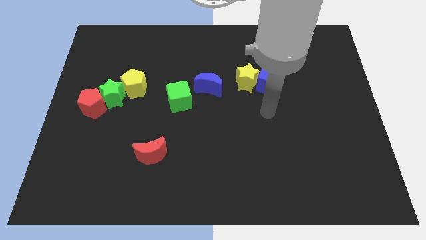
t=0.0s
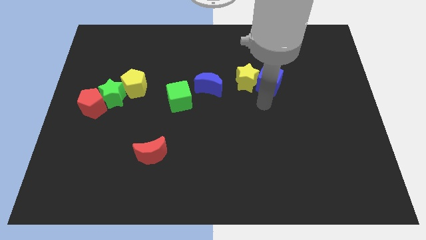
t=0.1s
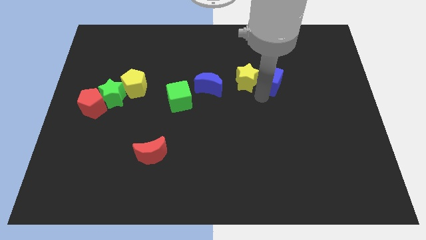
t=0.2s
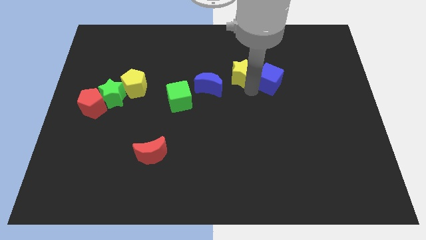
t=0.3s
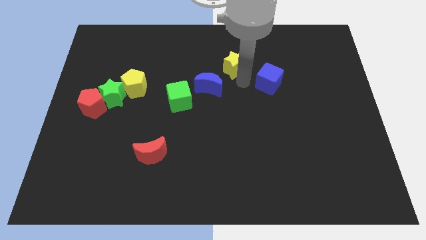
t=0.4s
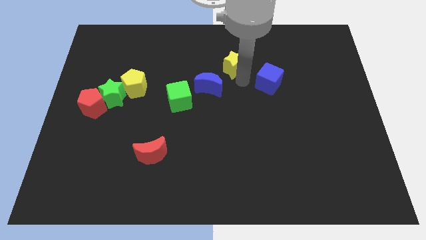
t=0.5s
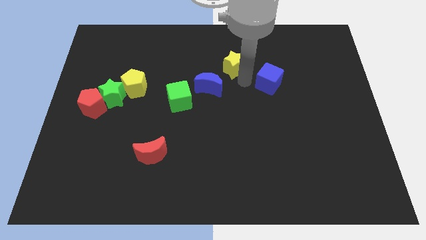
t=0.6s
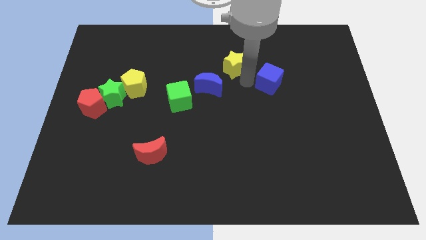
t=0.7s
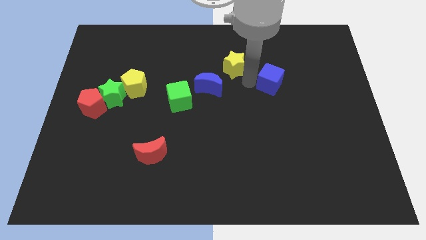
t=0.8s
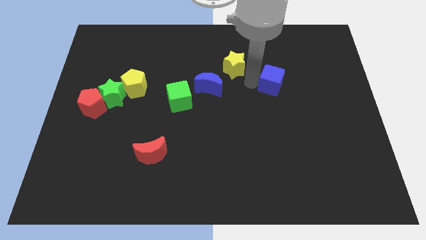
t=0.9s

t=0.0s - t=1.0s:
move the blue cube away from the yellow star

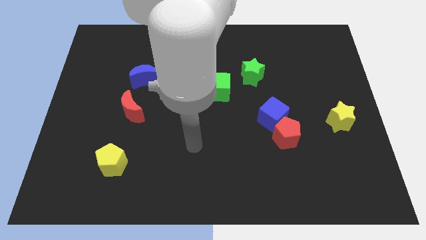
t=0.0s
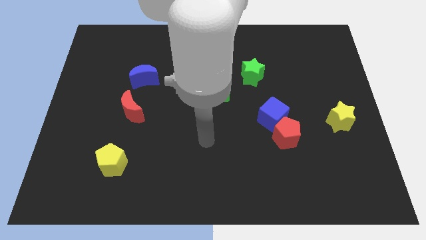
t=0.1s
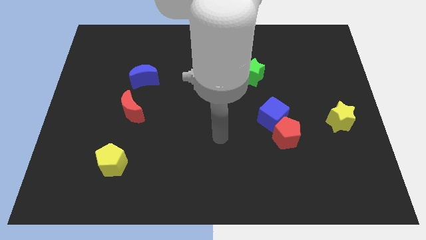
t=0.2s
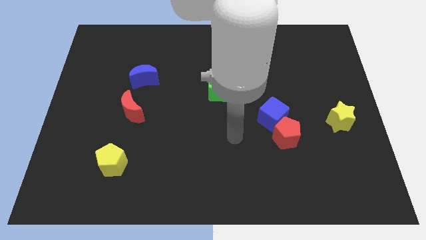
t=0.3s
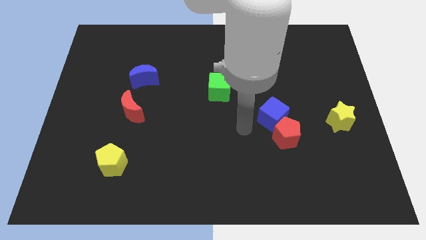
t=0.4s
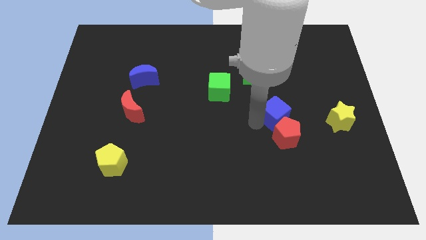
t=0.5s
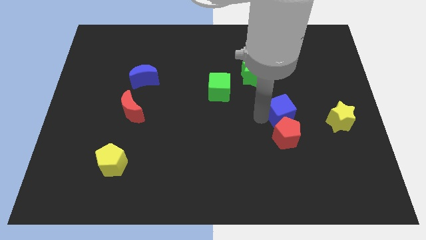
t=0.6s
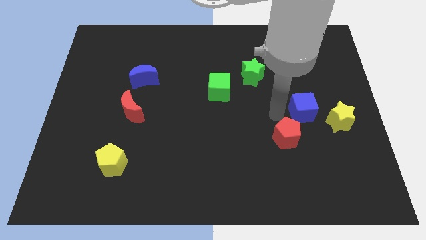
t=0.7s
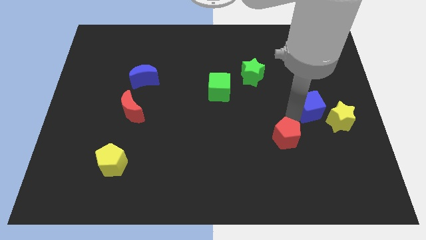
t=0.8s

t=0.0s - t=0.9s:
separate the red pentagon from the blue cube

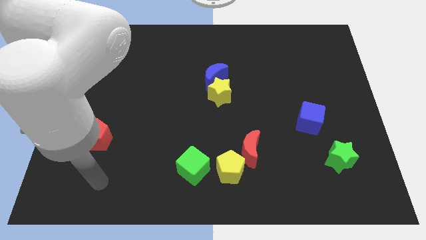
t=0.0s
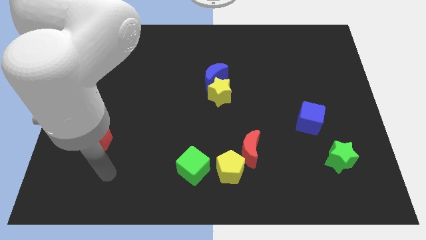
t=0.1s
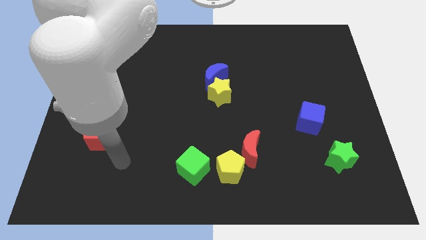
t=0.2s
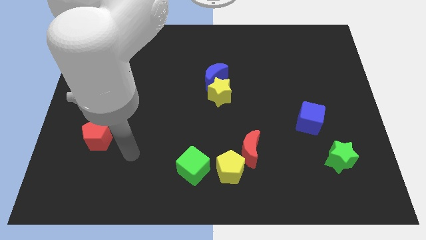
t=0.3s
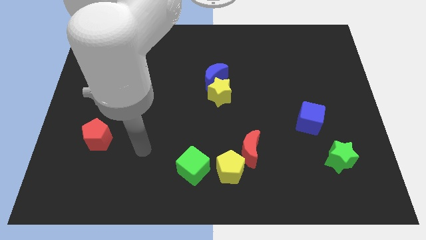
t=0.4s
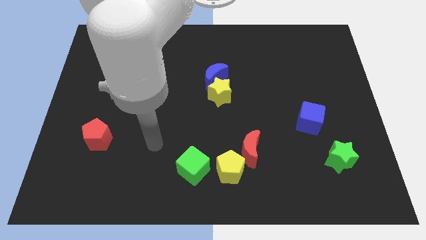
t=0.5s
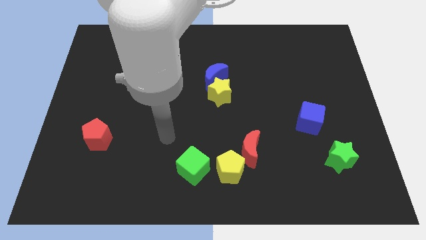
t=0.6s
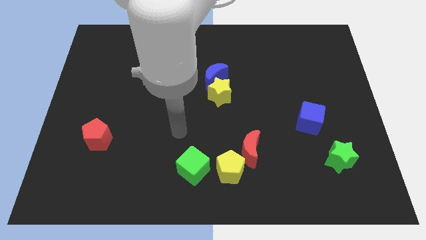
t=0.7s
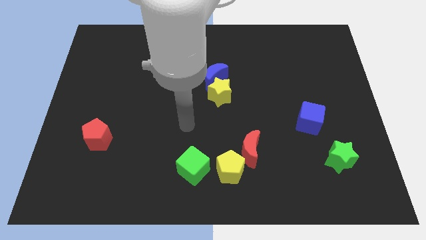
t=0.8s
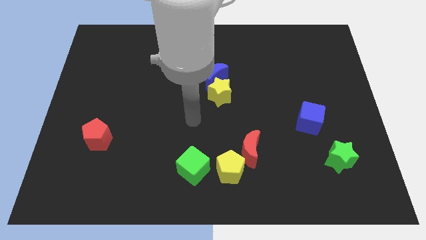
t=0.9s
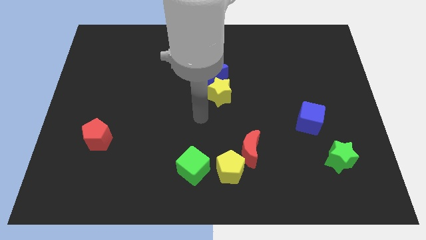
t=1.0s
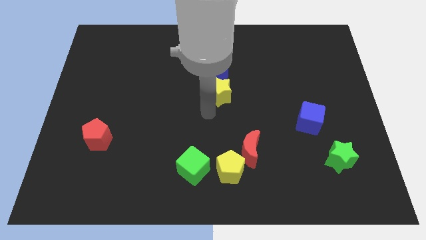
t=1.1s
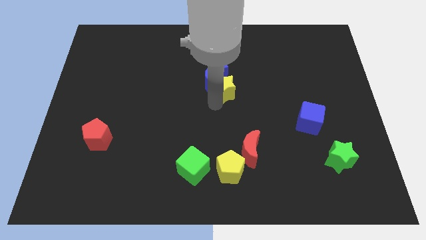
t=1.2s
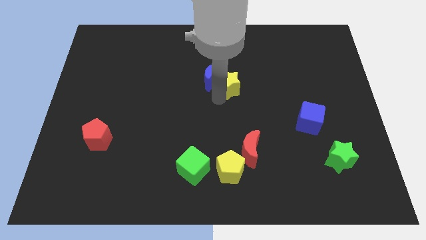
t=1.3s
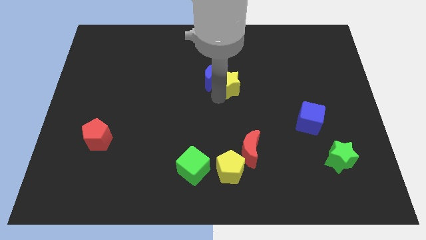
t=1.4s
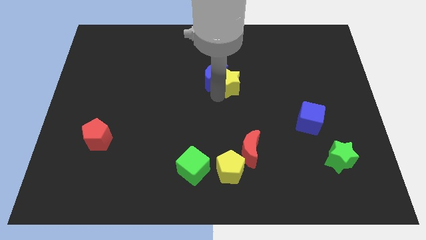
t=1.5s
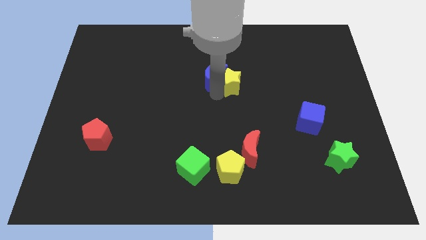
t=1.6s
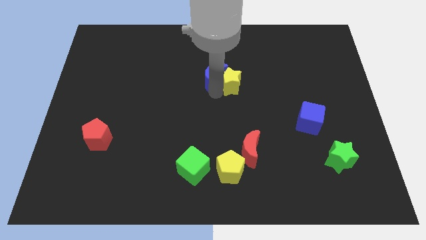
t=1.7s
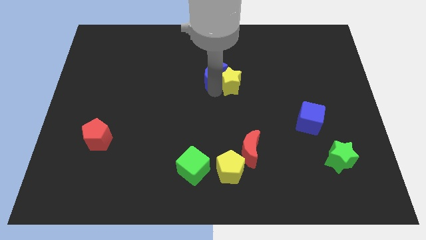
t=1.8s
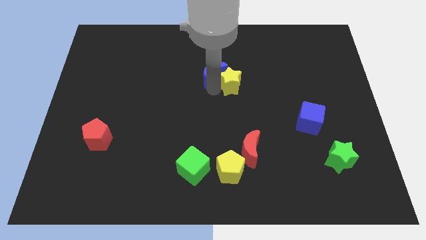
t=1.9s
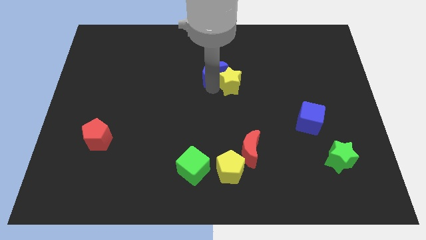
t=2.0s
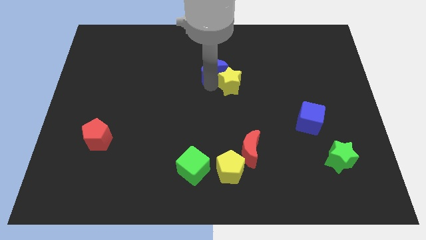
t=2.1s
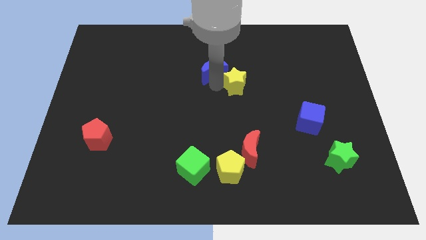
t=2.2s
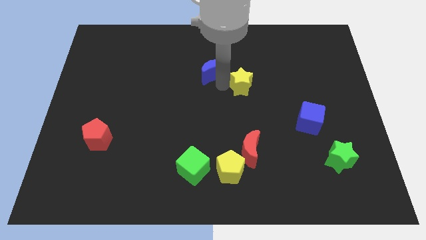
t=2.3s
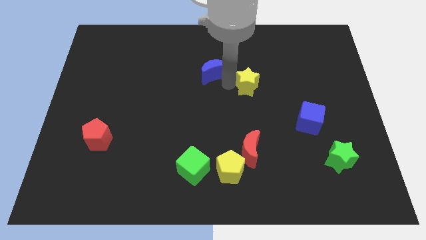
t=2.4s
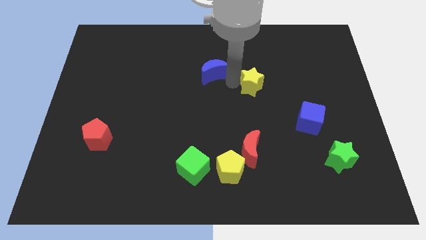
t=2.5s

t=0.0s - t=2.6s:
pull the blue moon apart from the yellow star

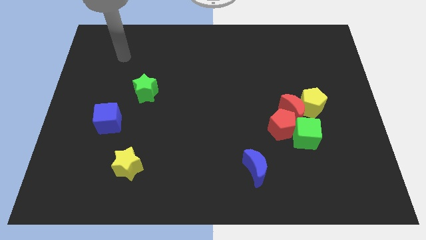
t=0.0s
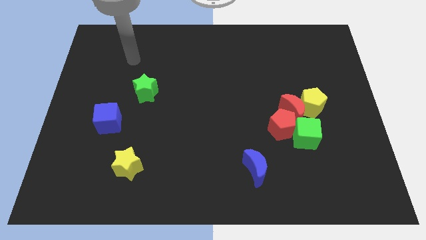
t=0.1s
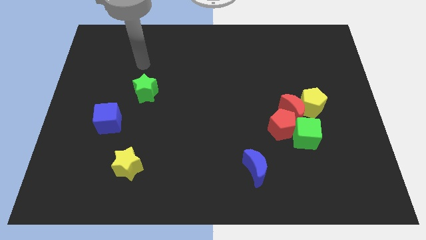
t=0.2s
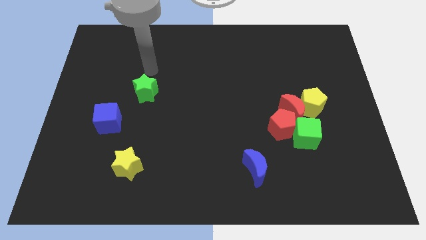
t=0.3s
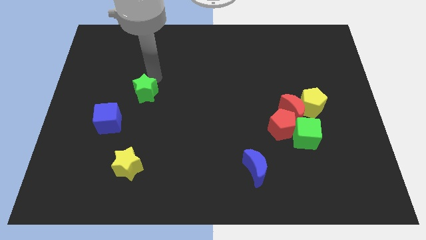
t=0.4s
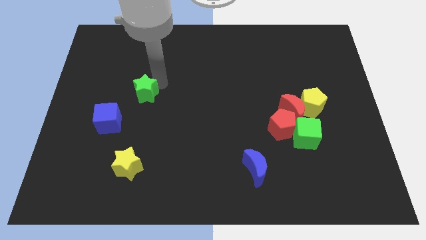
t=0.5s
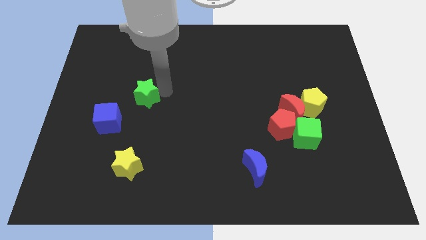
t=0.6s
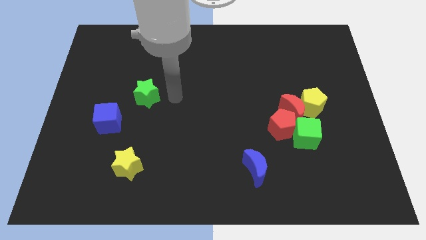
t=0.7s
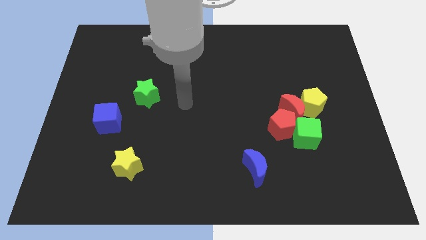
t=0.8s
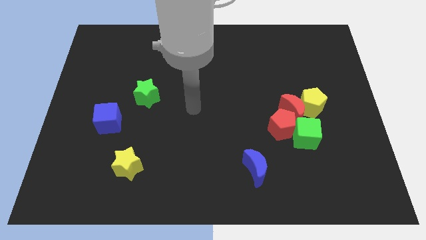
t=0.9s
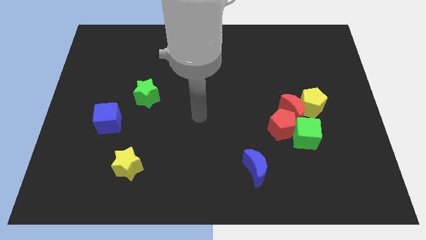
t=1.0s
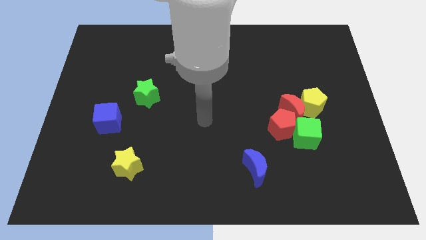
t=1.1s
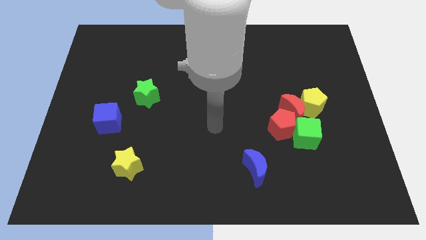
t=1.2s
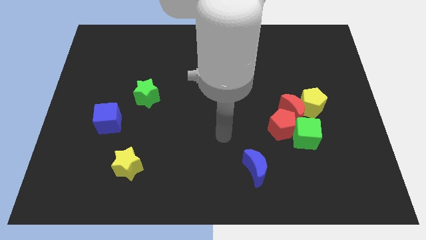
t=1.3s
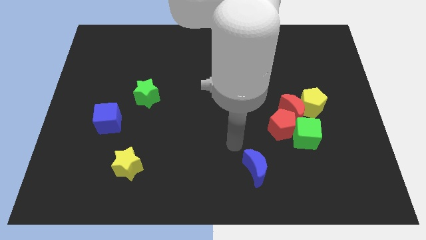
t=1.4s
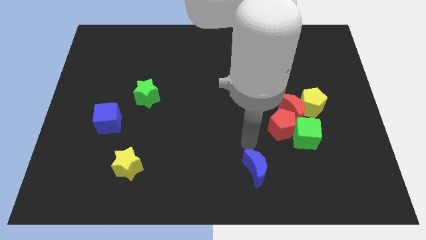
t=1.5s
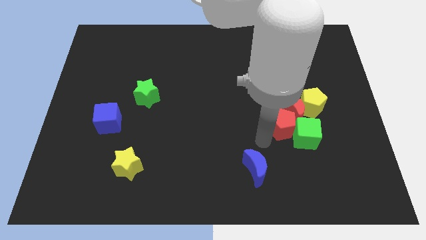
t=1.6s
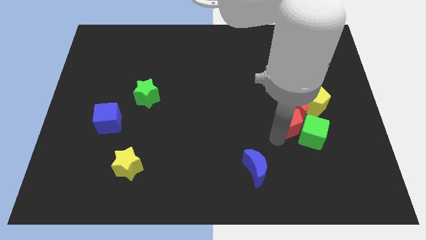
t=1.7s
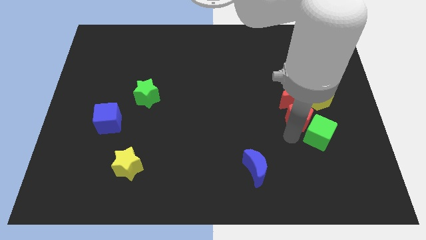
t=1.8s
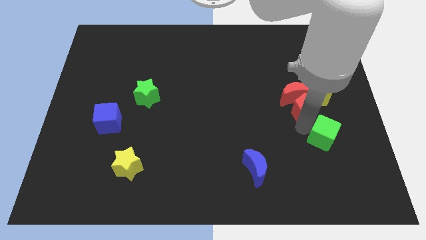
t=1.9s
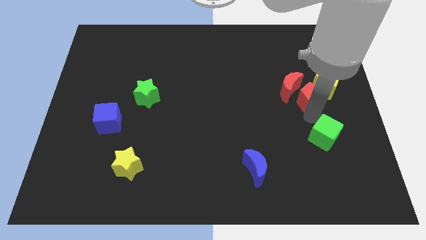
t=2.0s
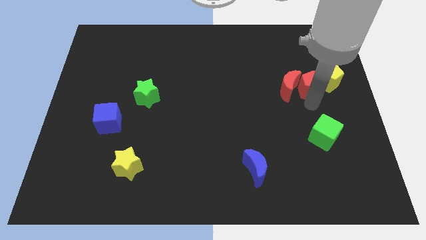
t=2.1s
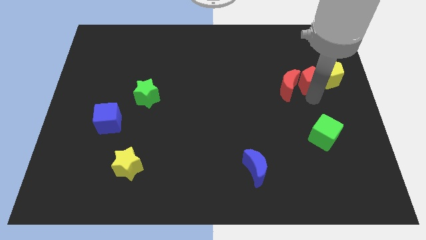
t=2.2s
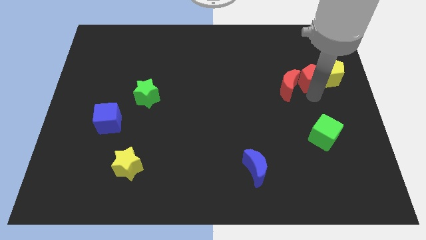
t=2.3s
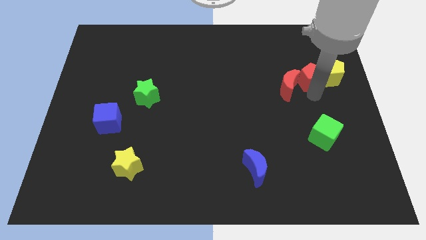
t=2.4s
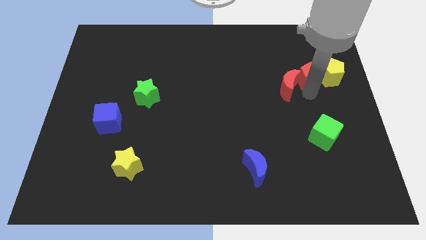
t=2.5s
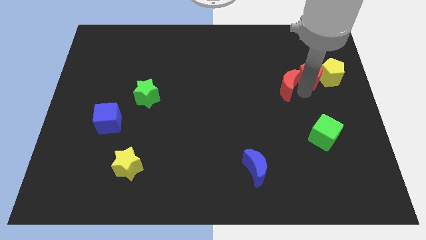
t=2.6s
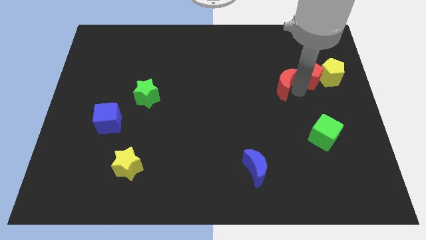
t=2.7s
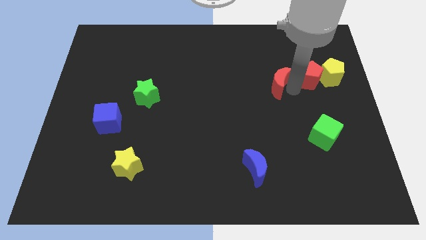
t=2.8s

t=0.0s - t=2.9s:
pull the red moon apart from the yellow pentagon, red pentagon, and green cube

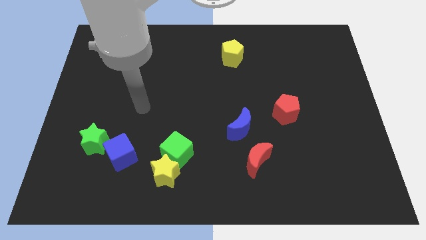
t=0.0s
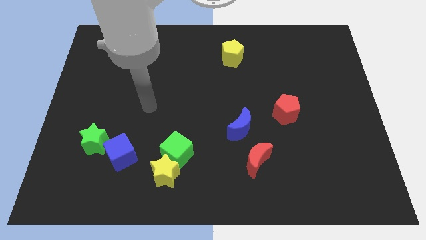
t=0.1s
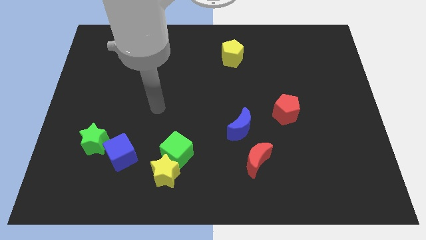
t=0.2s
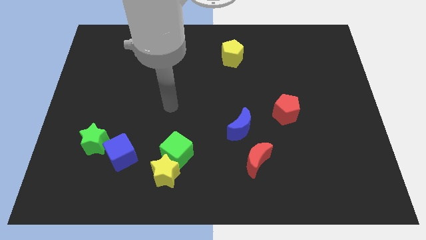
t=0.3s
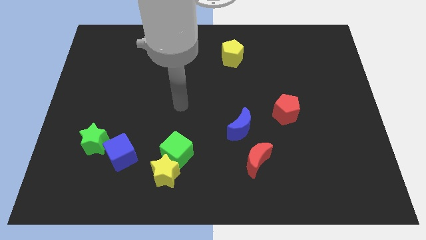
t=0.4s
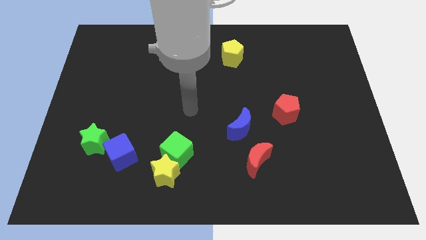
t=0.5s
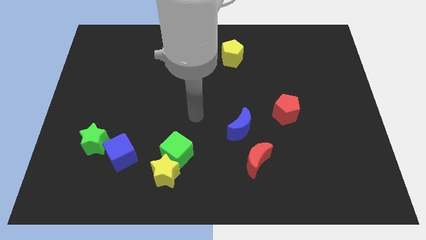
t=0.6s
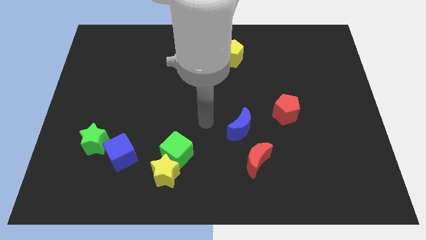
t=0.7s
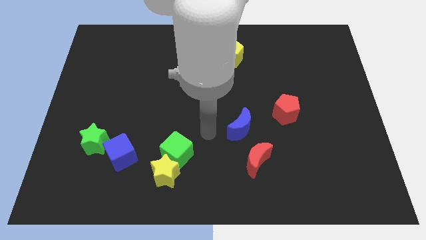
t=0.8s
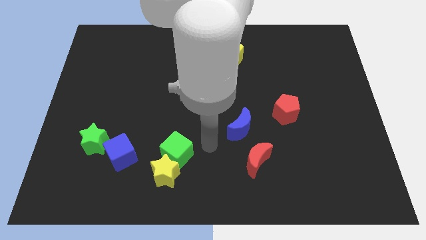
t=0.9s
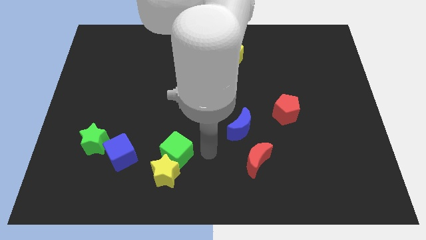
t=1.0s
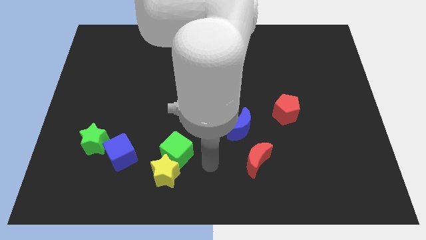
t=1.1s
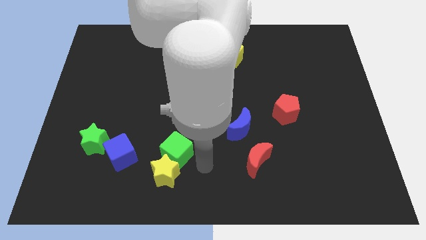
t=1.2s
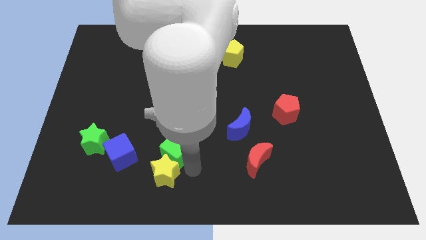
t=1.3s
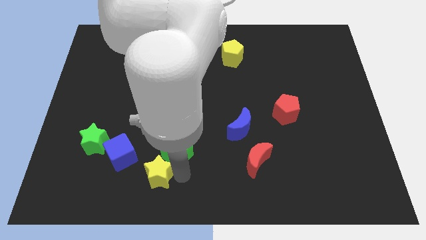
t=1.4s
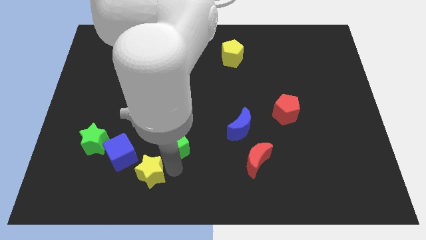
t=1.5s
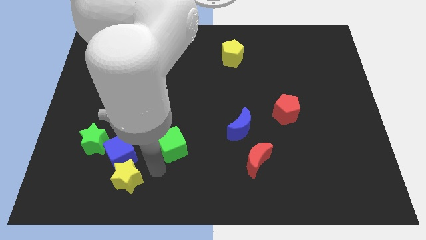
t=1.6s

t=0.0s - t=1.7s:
move the green cube away from the yellow star
